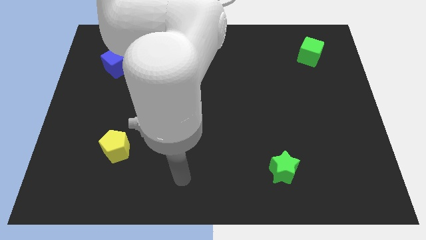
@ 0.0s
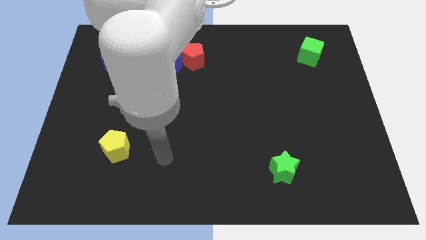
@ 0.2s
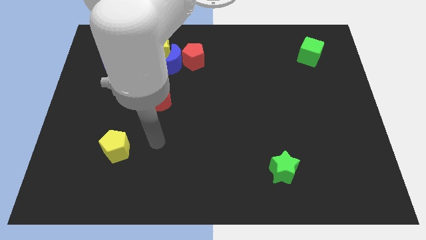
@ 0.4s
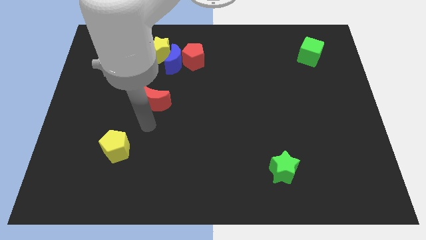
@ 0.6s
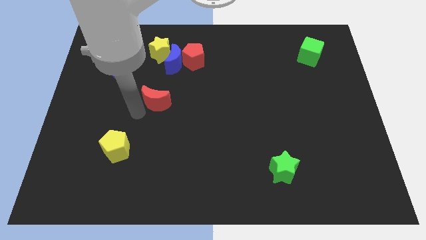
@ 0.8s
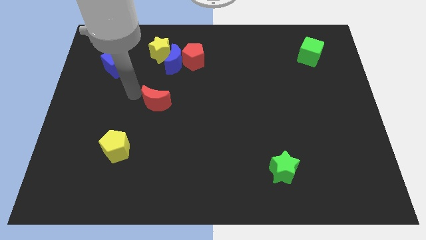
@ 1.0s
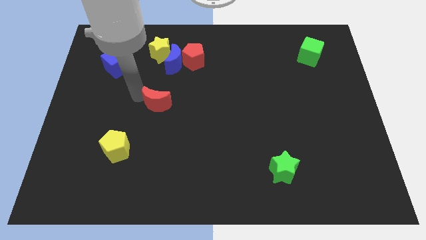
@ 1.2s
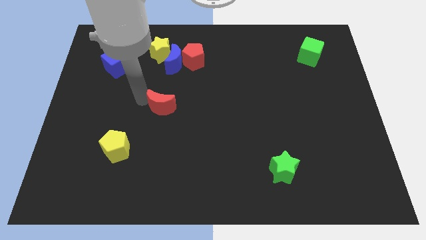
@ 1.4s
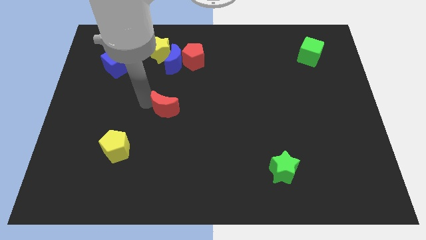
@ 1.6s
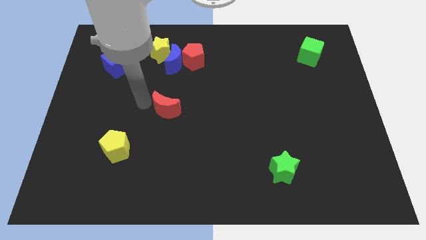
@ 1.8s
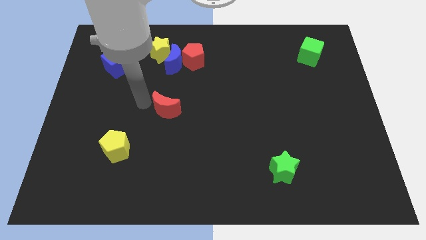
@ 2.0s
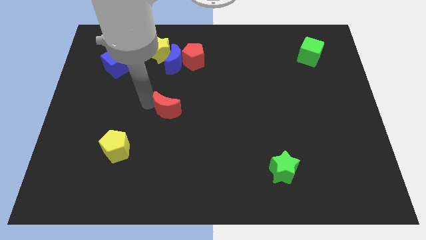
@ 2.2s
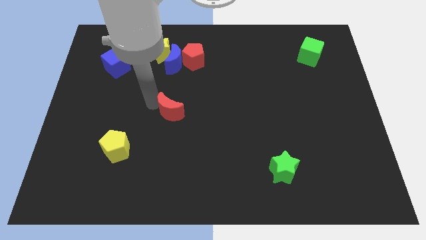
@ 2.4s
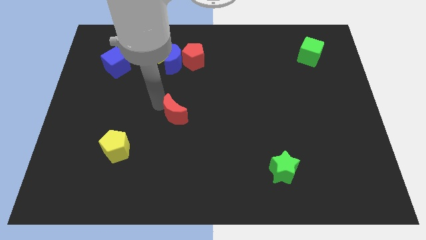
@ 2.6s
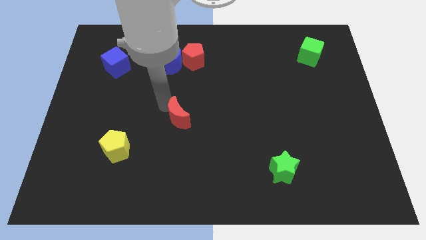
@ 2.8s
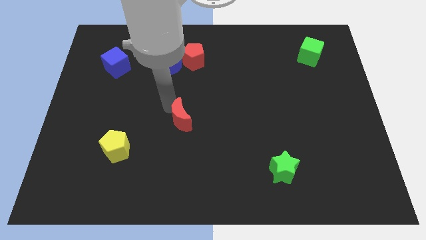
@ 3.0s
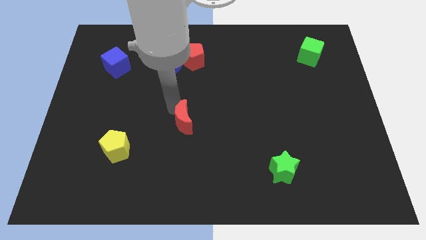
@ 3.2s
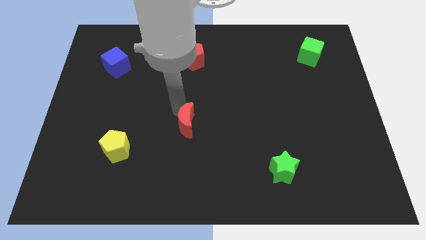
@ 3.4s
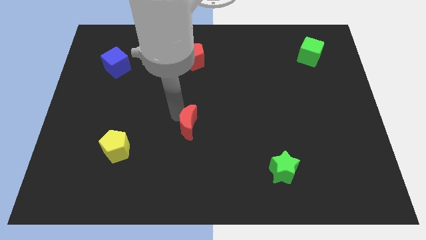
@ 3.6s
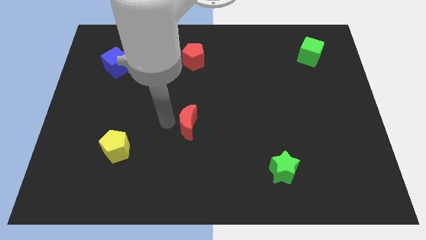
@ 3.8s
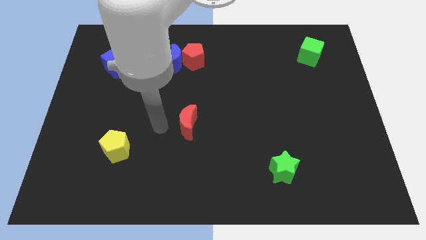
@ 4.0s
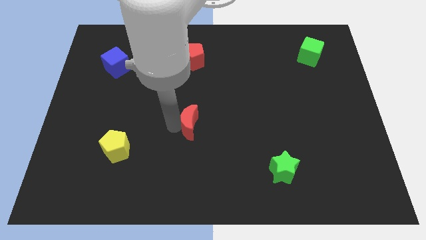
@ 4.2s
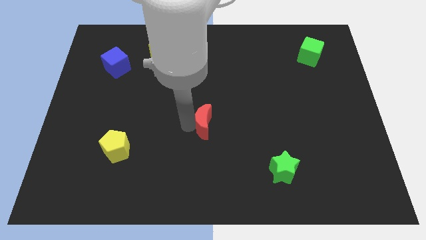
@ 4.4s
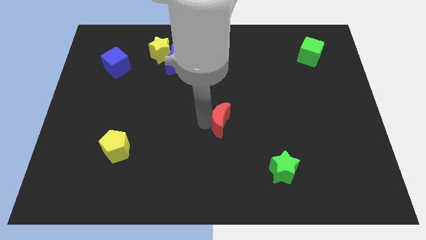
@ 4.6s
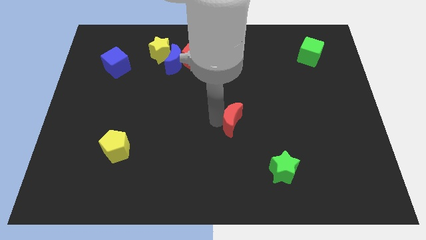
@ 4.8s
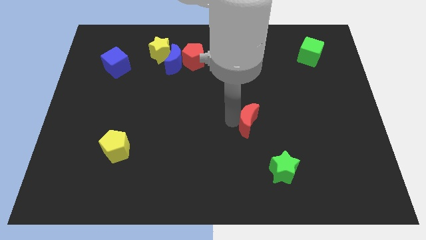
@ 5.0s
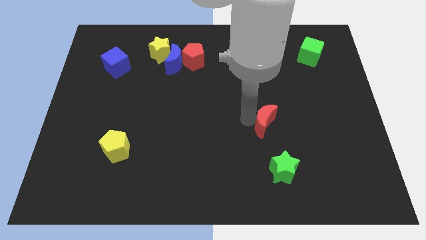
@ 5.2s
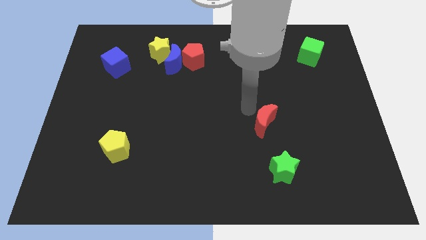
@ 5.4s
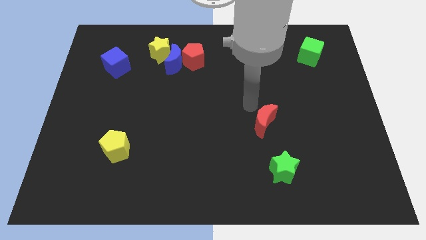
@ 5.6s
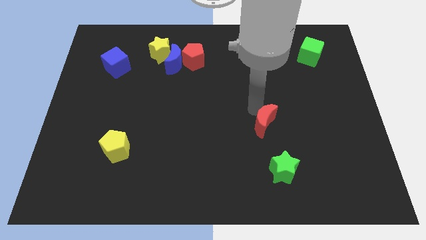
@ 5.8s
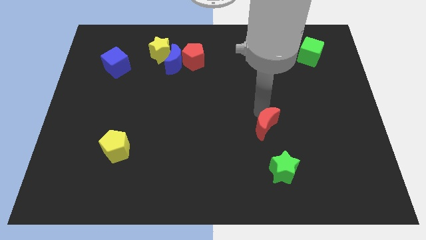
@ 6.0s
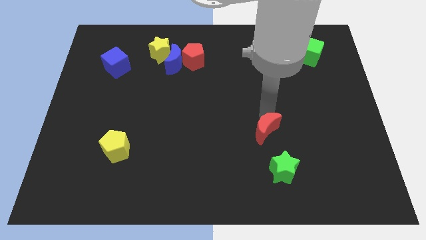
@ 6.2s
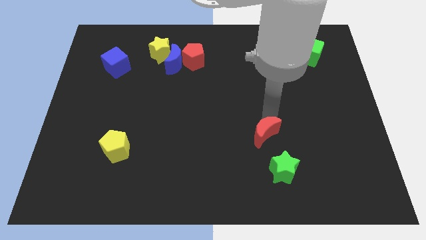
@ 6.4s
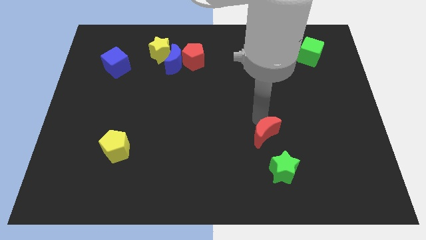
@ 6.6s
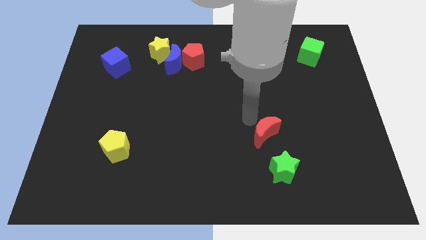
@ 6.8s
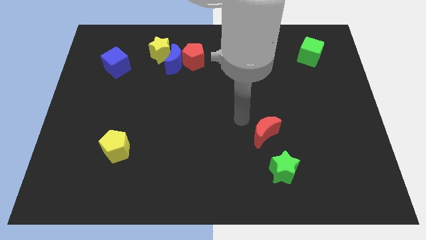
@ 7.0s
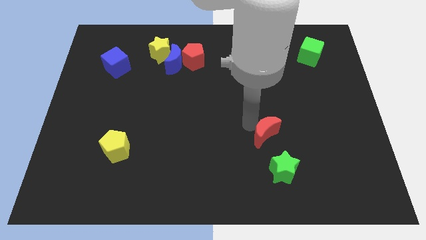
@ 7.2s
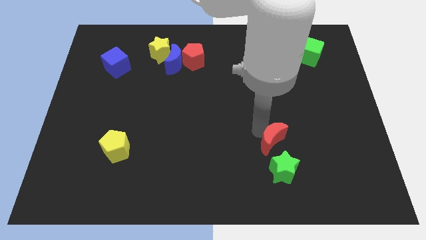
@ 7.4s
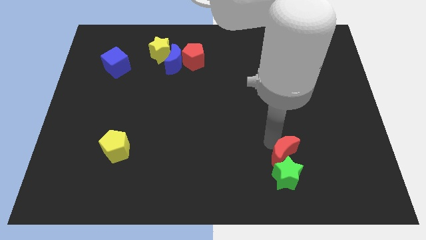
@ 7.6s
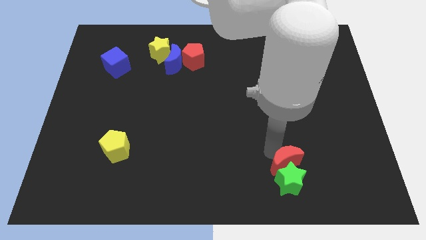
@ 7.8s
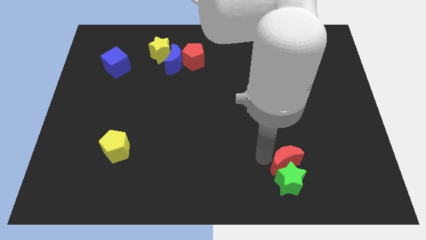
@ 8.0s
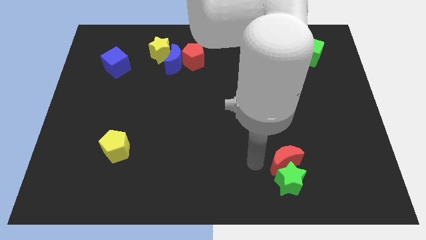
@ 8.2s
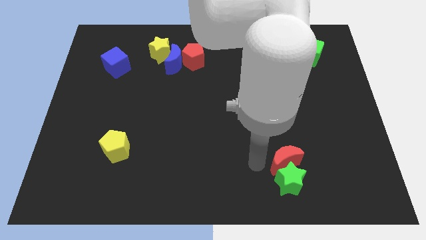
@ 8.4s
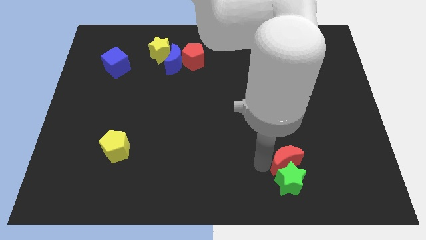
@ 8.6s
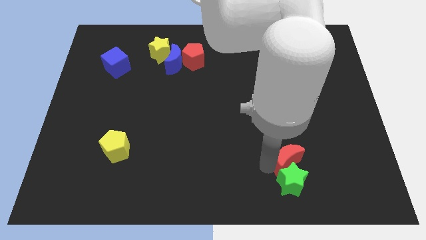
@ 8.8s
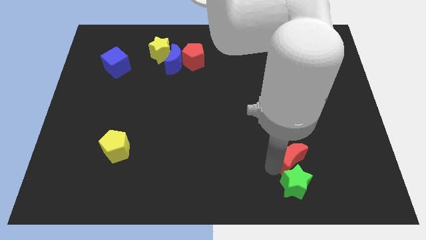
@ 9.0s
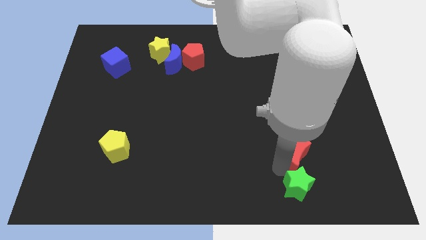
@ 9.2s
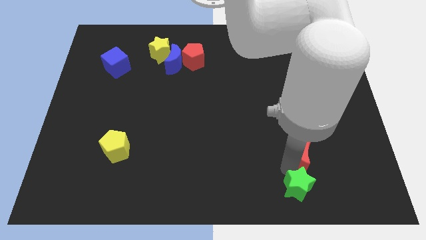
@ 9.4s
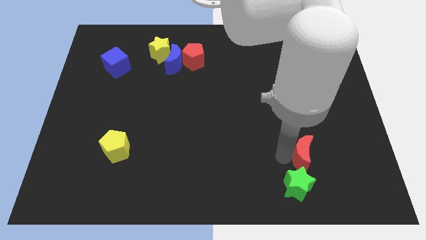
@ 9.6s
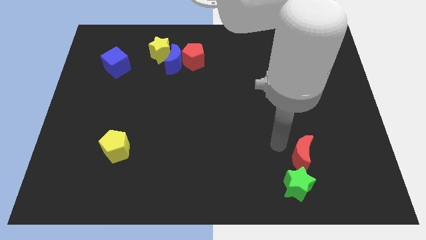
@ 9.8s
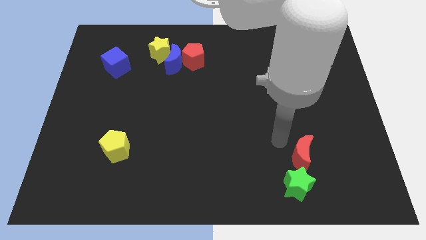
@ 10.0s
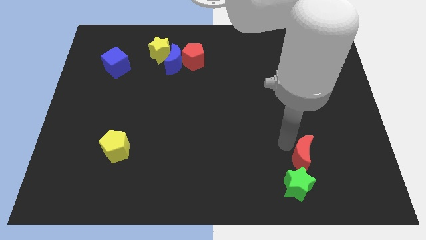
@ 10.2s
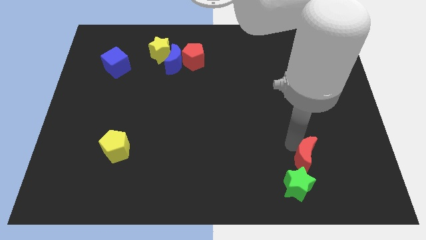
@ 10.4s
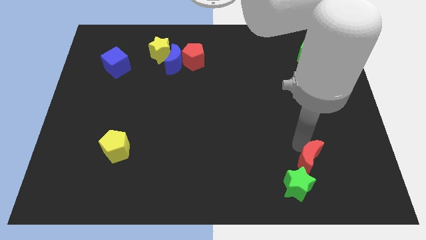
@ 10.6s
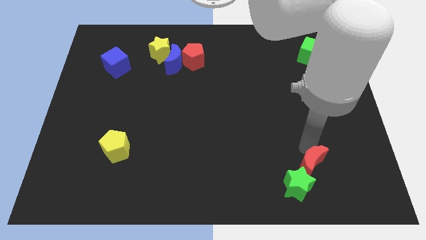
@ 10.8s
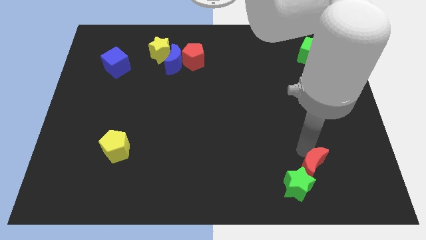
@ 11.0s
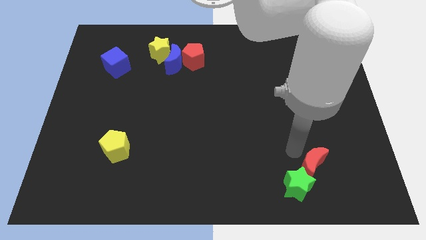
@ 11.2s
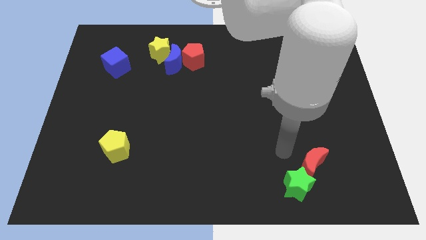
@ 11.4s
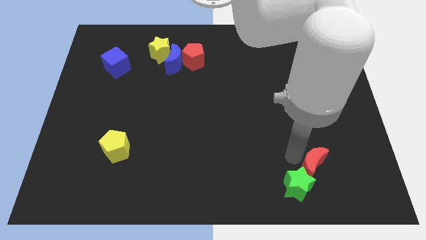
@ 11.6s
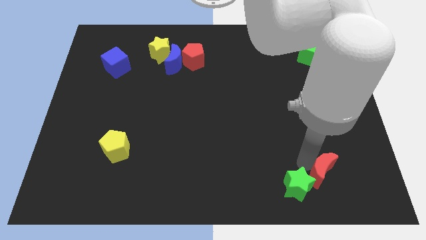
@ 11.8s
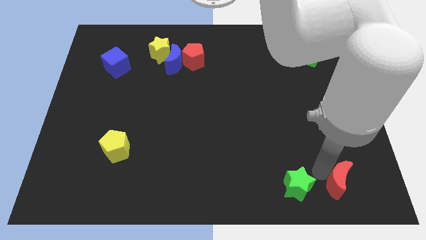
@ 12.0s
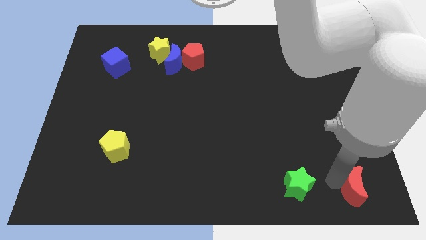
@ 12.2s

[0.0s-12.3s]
move the red moon to the bottom right
